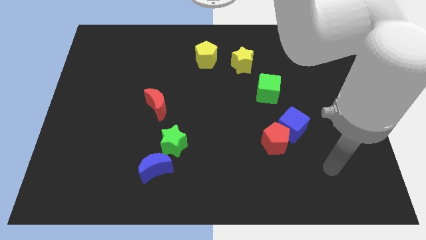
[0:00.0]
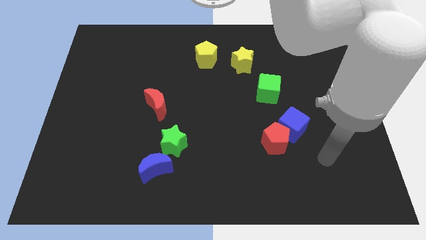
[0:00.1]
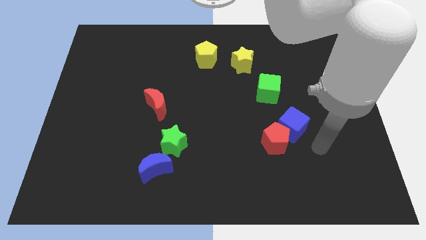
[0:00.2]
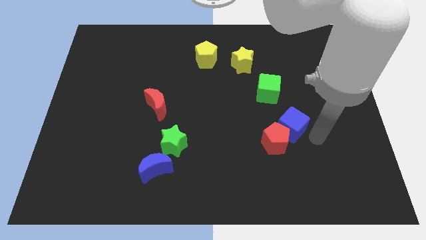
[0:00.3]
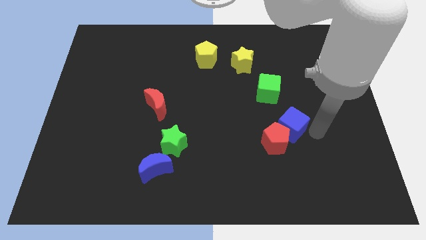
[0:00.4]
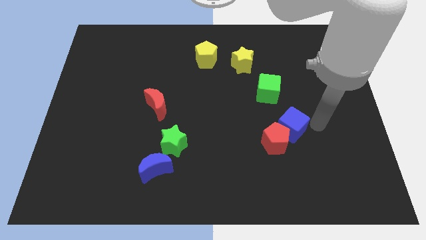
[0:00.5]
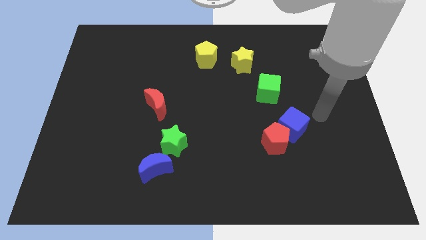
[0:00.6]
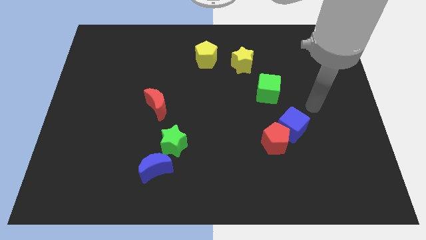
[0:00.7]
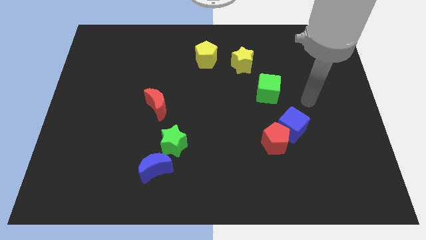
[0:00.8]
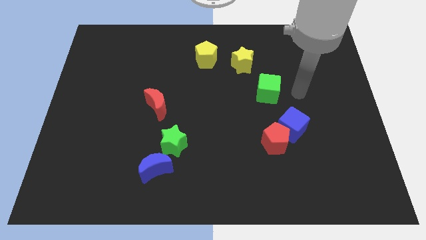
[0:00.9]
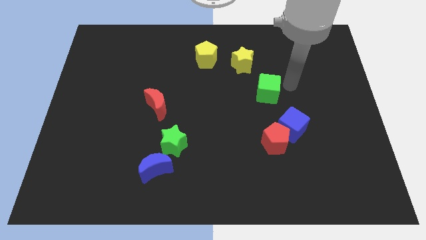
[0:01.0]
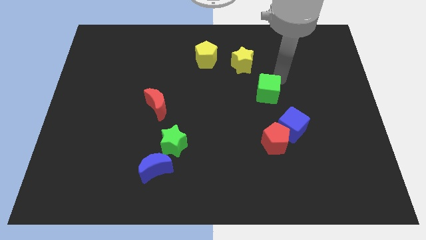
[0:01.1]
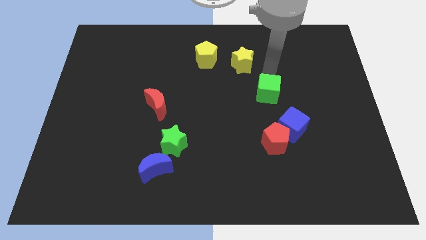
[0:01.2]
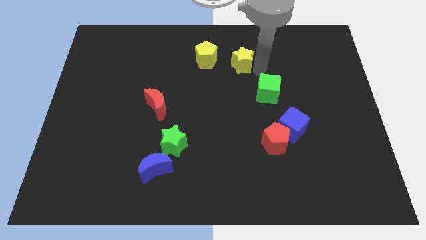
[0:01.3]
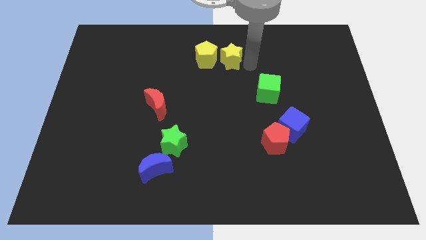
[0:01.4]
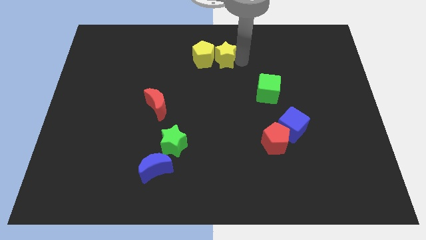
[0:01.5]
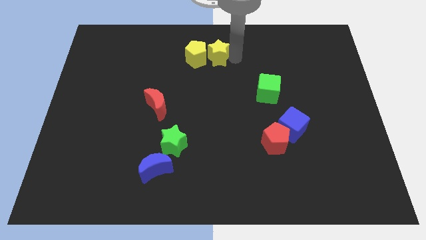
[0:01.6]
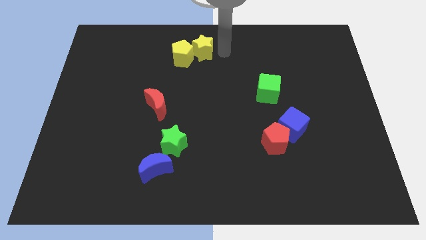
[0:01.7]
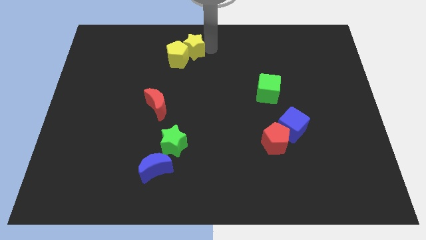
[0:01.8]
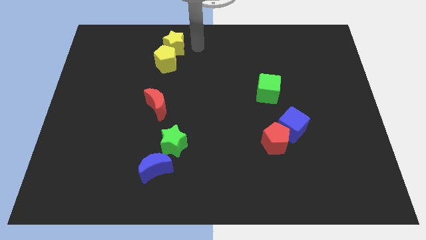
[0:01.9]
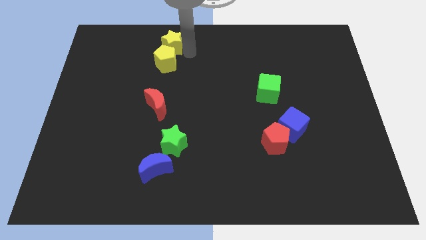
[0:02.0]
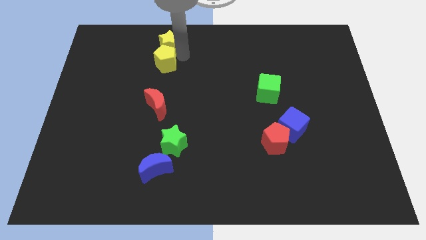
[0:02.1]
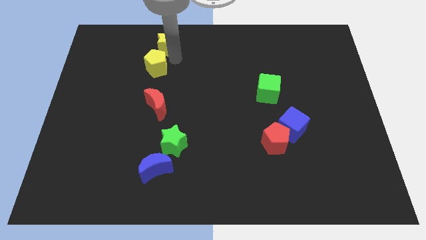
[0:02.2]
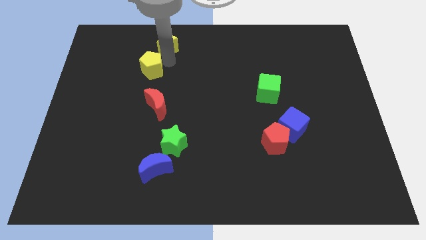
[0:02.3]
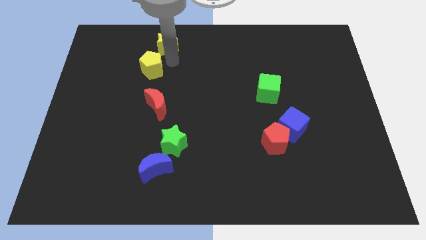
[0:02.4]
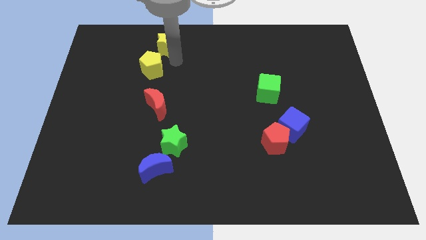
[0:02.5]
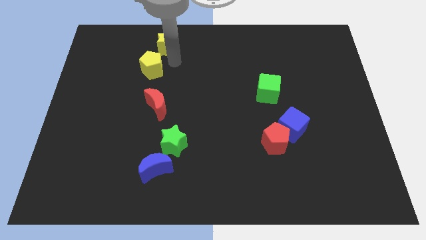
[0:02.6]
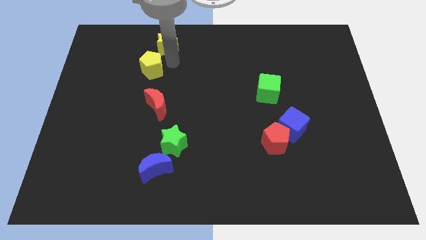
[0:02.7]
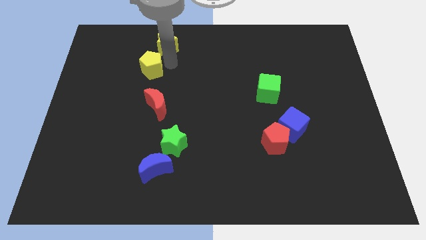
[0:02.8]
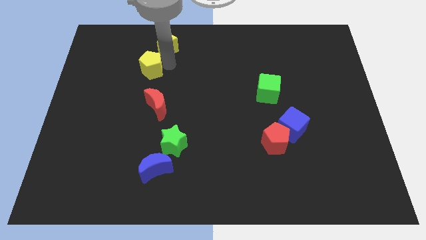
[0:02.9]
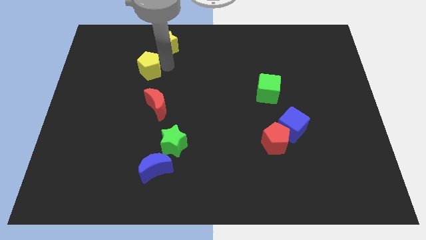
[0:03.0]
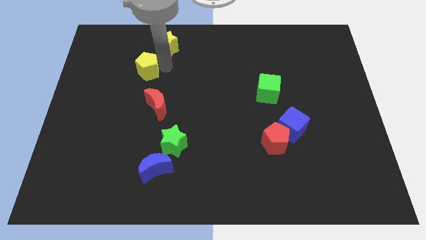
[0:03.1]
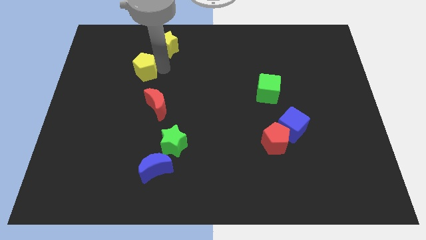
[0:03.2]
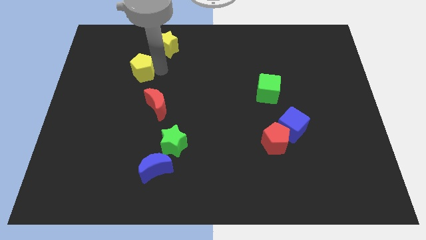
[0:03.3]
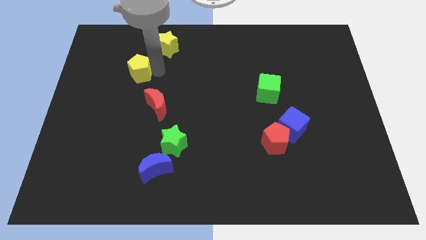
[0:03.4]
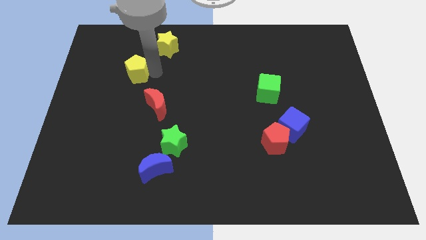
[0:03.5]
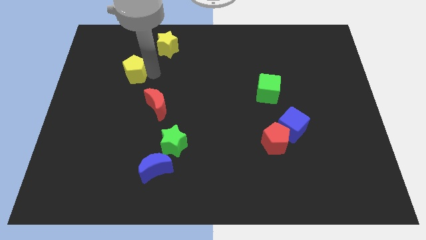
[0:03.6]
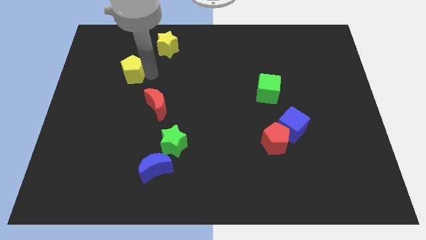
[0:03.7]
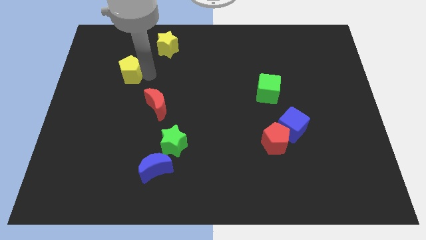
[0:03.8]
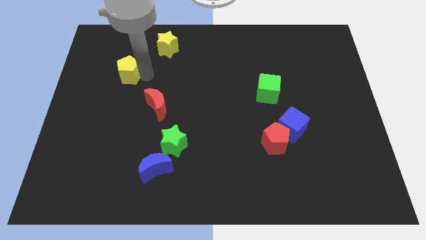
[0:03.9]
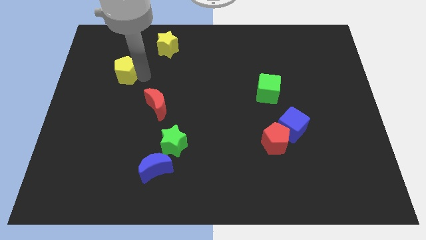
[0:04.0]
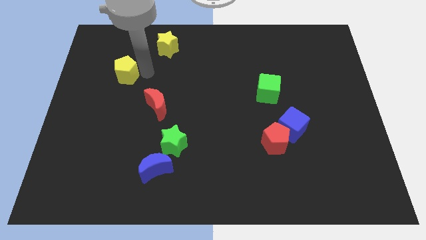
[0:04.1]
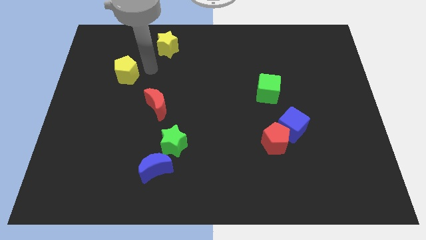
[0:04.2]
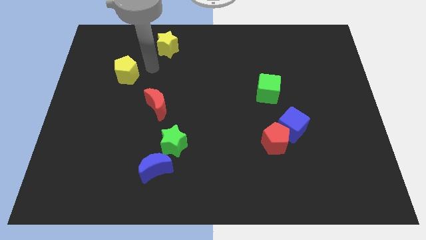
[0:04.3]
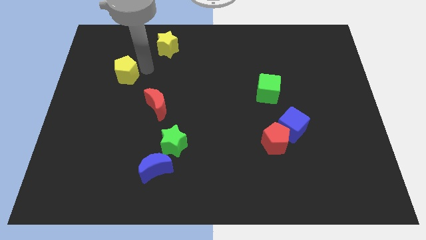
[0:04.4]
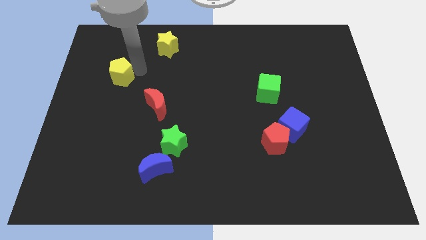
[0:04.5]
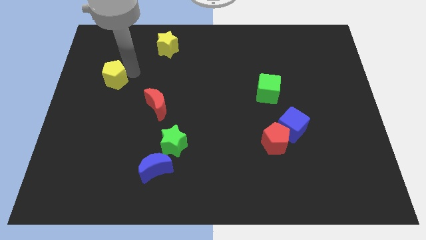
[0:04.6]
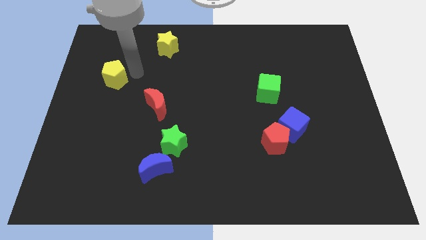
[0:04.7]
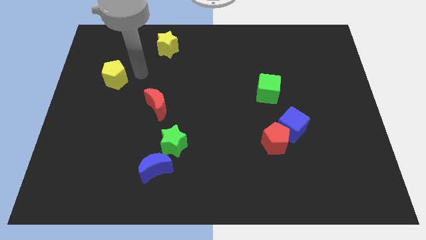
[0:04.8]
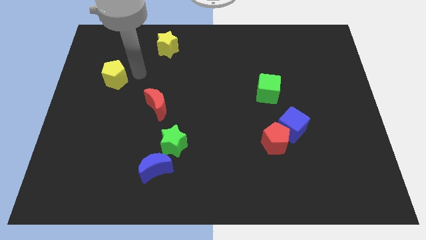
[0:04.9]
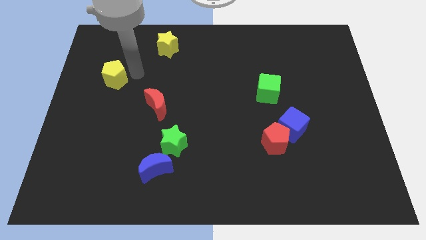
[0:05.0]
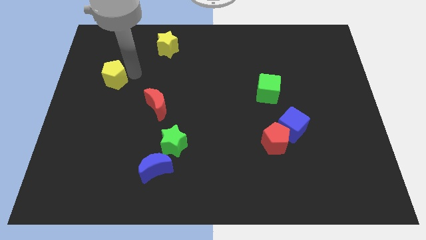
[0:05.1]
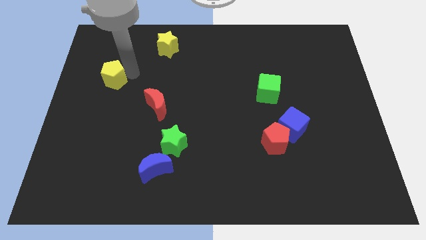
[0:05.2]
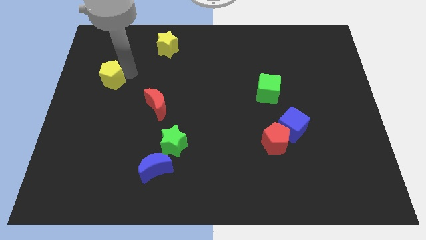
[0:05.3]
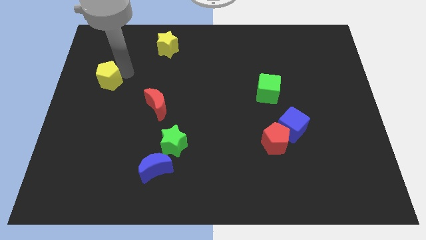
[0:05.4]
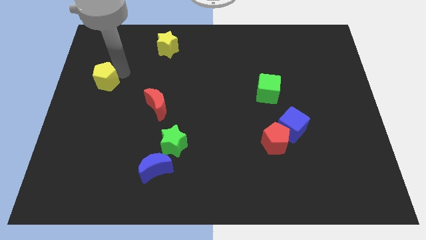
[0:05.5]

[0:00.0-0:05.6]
move the yellow pentagon to the left side of the board
